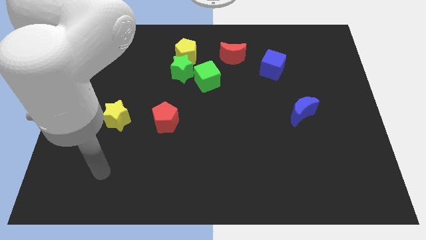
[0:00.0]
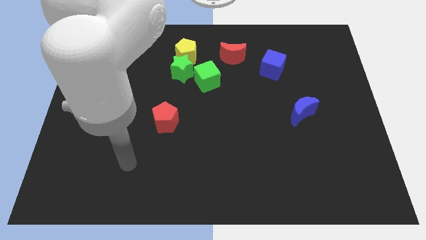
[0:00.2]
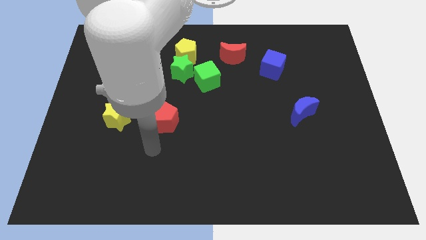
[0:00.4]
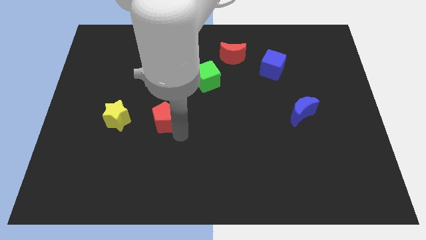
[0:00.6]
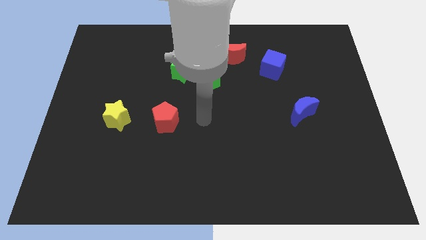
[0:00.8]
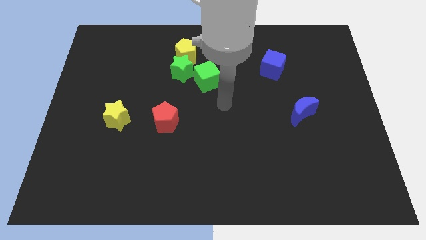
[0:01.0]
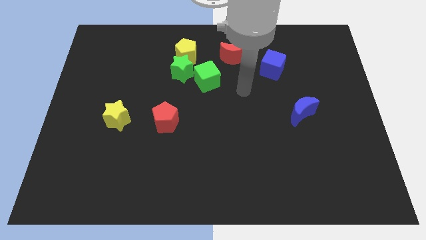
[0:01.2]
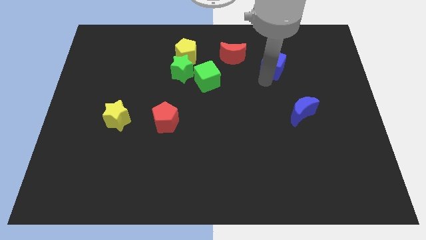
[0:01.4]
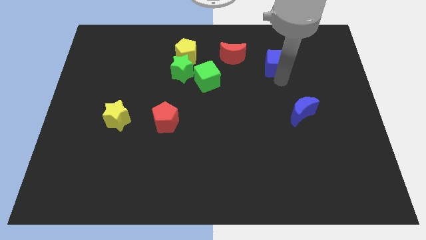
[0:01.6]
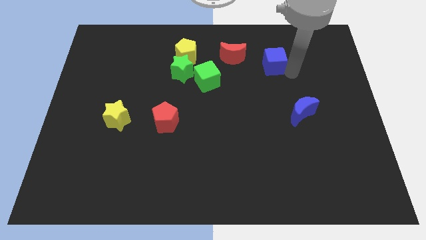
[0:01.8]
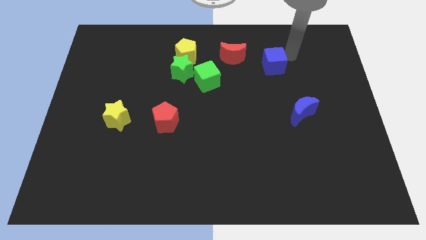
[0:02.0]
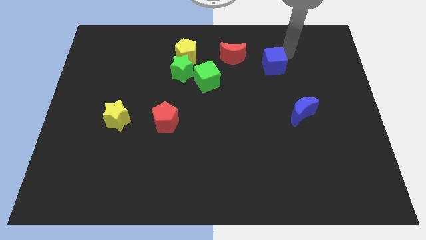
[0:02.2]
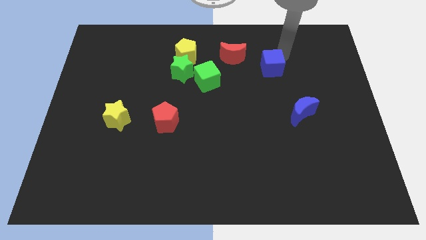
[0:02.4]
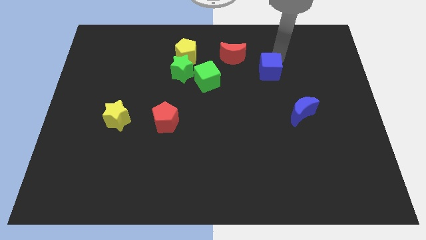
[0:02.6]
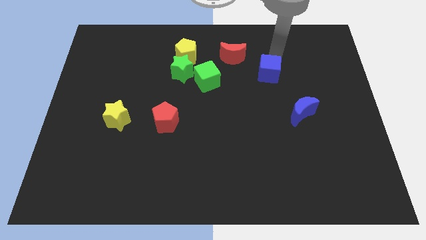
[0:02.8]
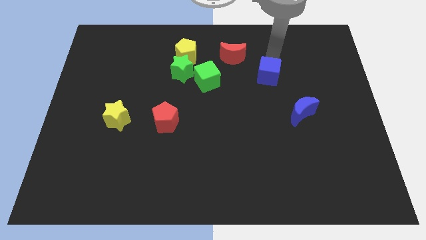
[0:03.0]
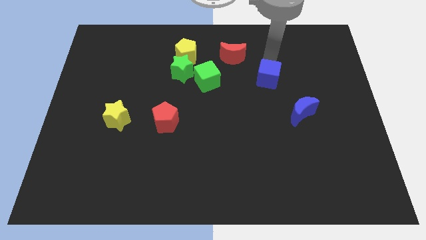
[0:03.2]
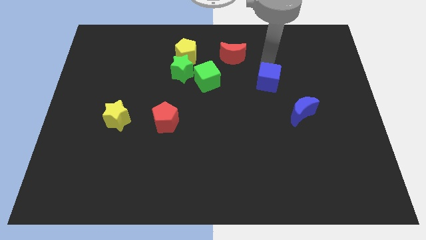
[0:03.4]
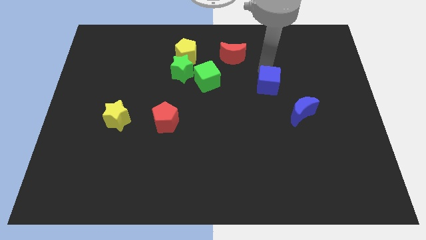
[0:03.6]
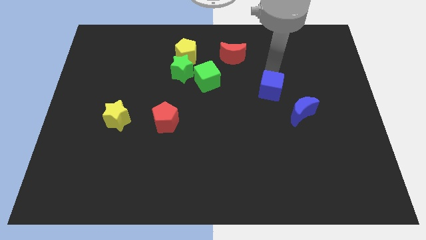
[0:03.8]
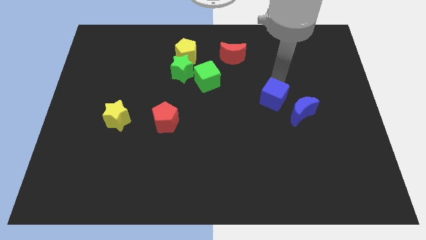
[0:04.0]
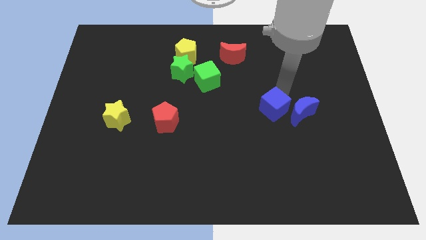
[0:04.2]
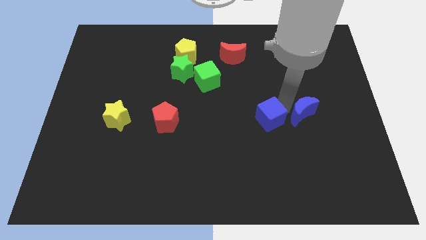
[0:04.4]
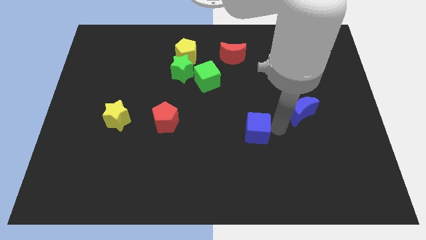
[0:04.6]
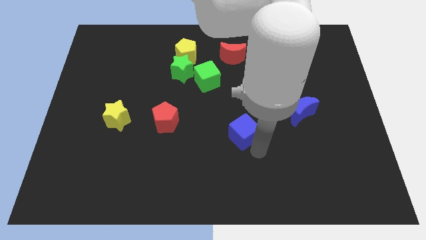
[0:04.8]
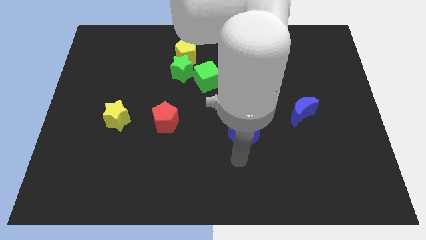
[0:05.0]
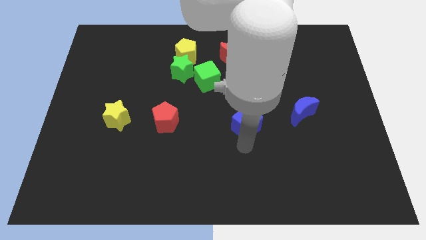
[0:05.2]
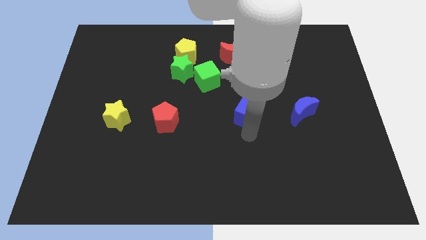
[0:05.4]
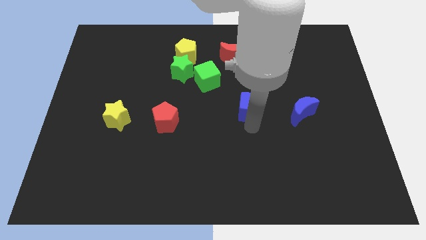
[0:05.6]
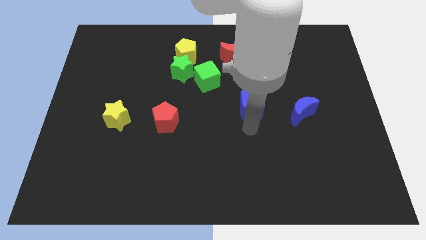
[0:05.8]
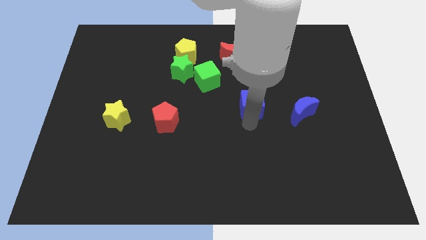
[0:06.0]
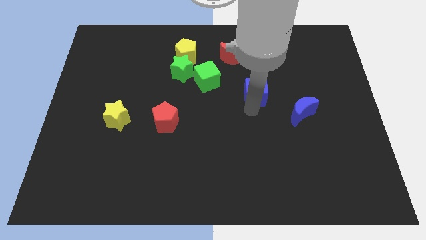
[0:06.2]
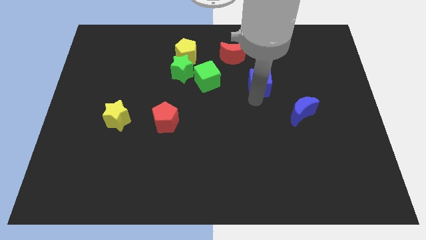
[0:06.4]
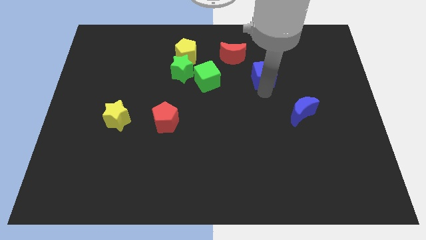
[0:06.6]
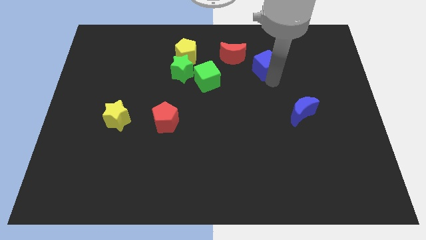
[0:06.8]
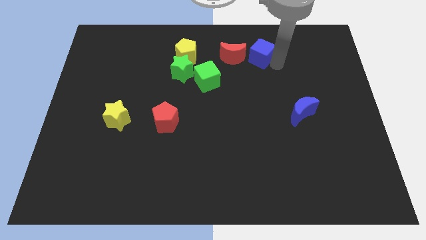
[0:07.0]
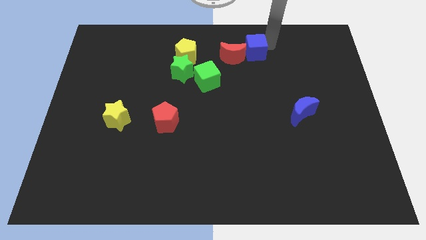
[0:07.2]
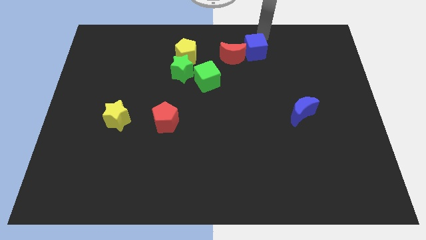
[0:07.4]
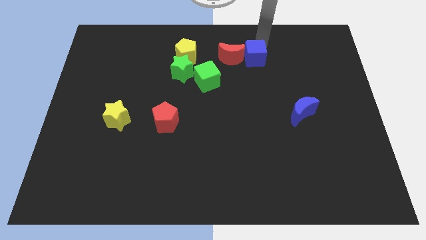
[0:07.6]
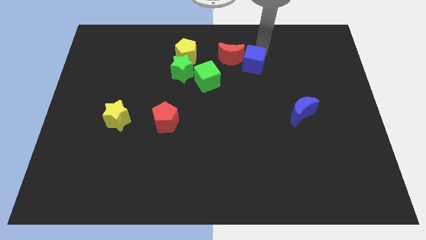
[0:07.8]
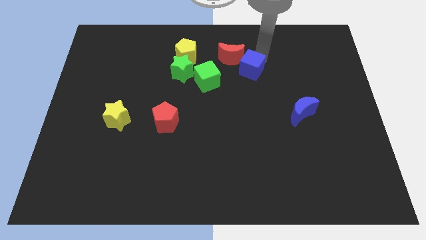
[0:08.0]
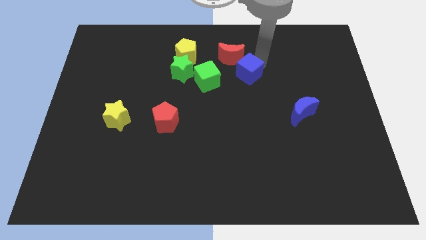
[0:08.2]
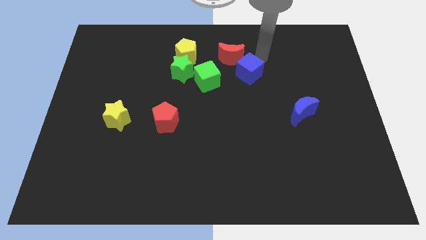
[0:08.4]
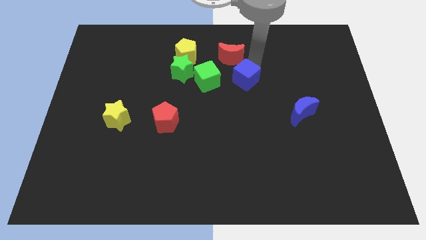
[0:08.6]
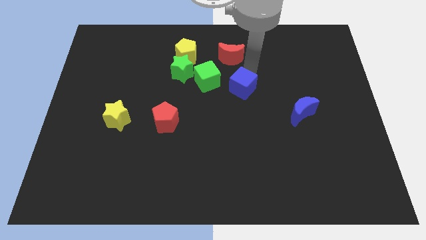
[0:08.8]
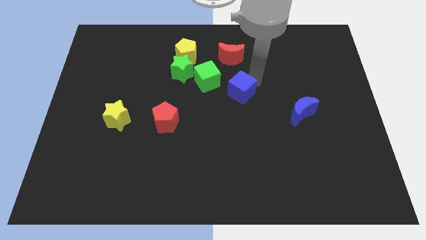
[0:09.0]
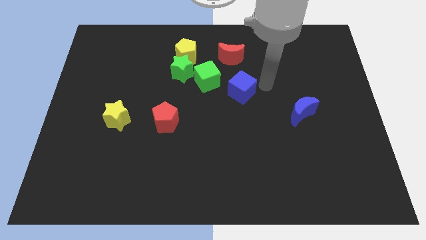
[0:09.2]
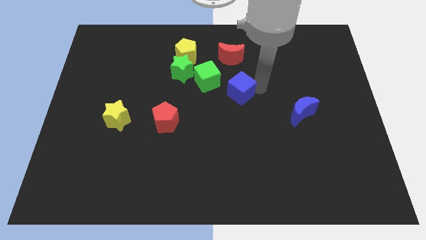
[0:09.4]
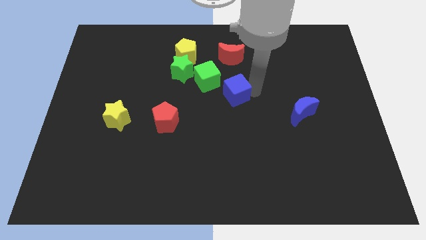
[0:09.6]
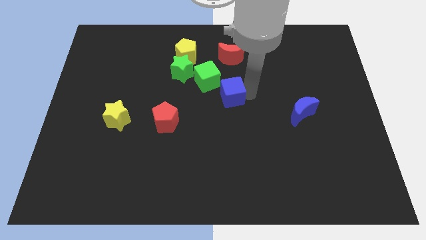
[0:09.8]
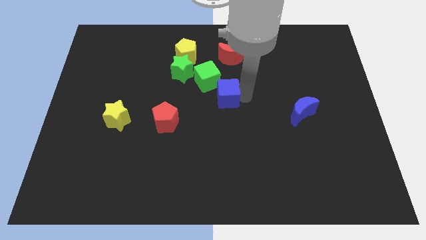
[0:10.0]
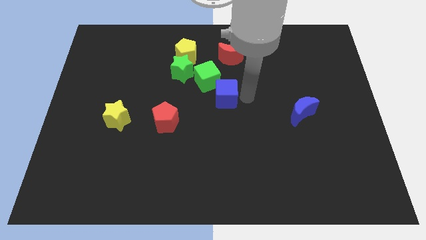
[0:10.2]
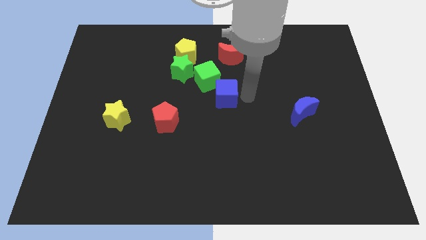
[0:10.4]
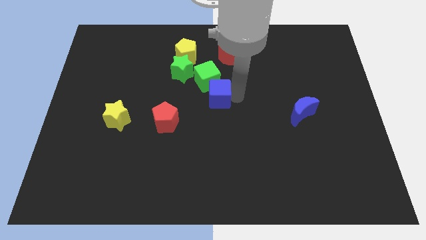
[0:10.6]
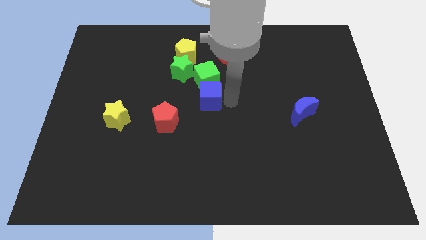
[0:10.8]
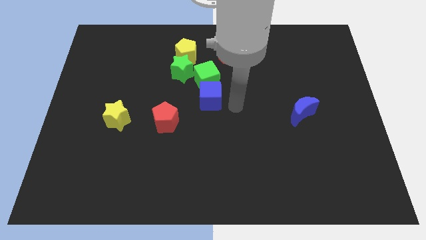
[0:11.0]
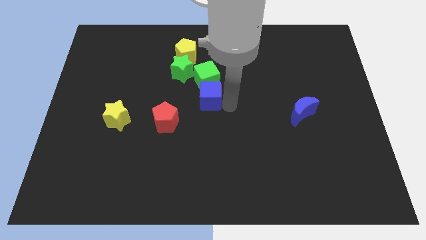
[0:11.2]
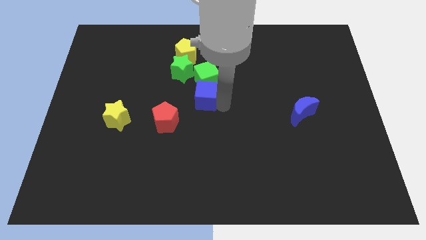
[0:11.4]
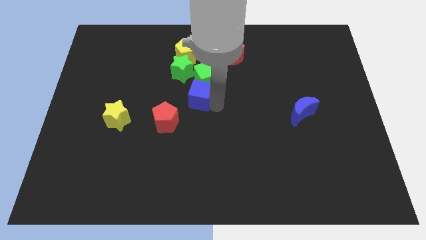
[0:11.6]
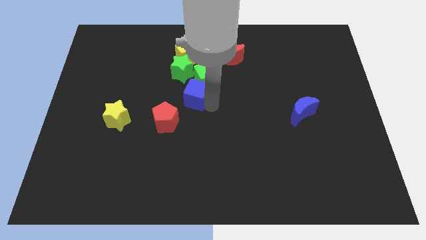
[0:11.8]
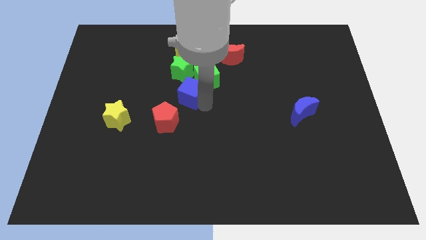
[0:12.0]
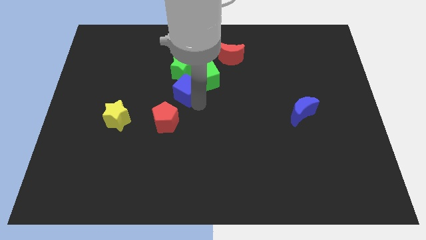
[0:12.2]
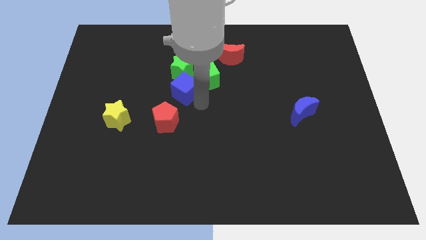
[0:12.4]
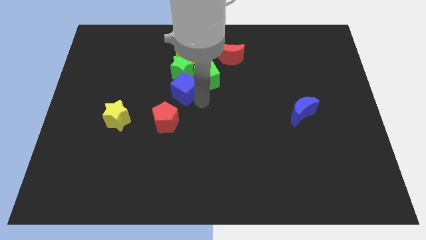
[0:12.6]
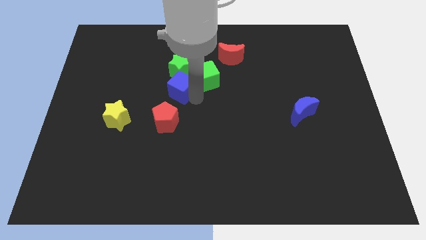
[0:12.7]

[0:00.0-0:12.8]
slide the blue cube left

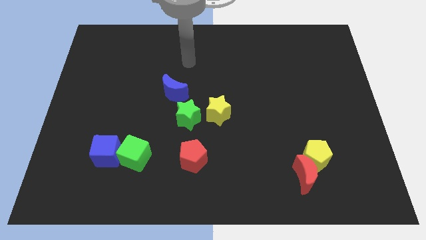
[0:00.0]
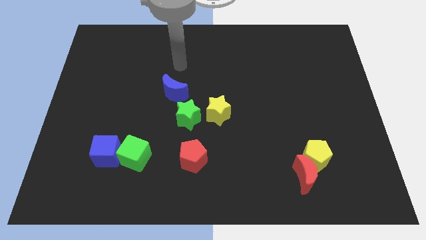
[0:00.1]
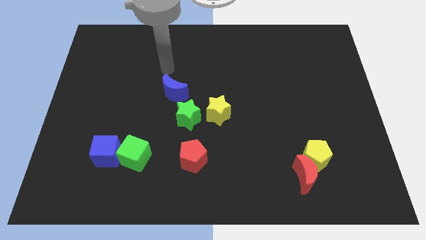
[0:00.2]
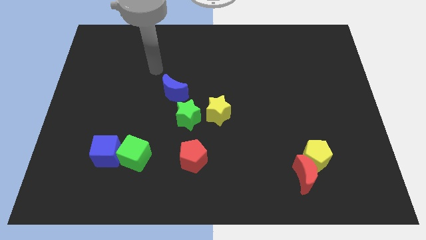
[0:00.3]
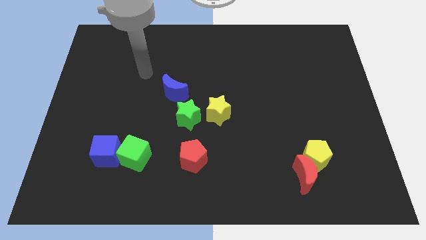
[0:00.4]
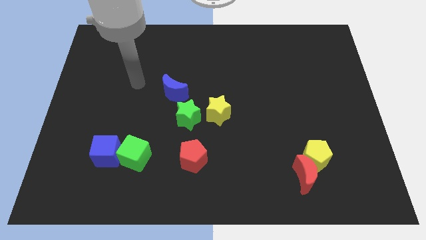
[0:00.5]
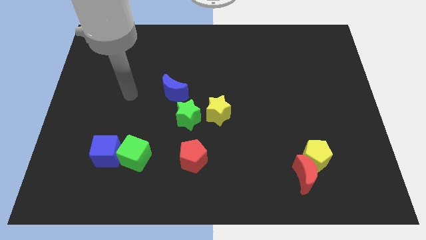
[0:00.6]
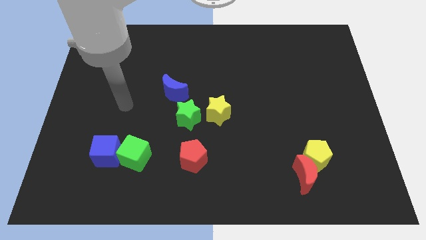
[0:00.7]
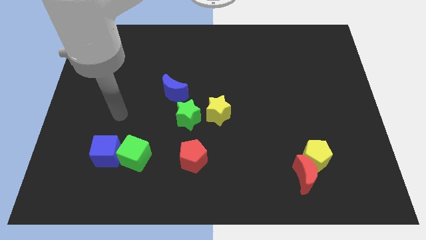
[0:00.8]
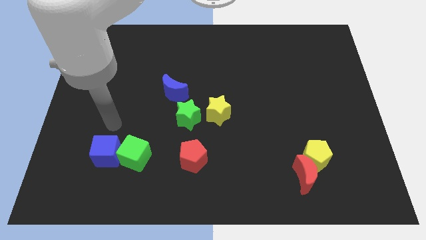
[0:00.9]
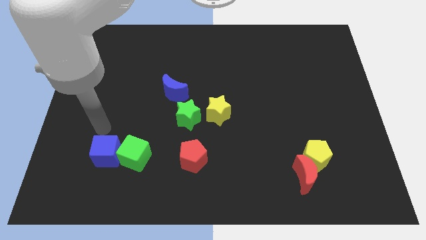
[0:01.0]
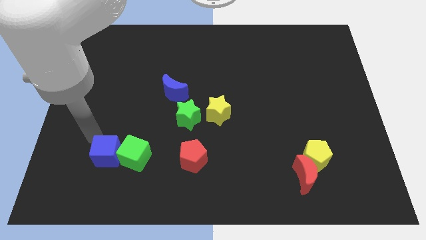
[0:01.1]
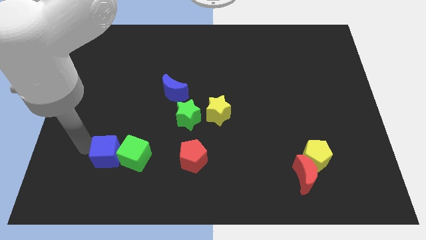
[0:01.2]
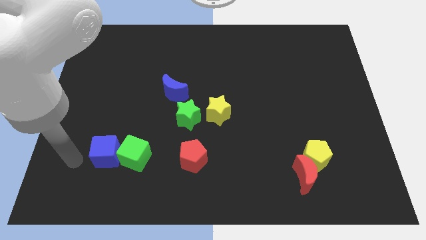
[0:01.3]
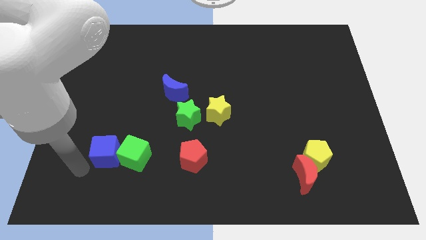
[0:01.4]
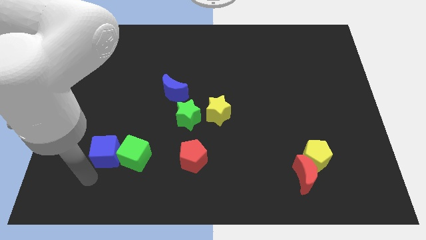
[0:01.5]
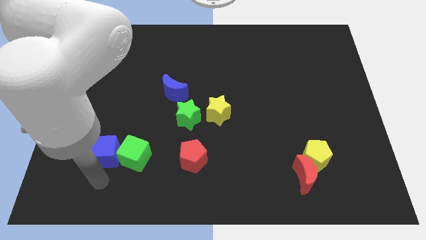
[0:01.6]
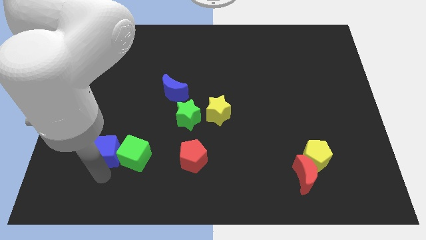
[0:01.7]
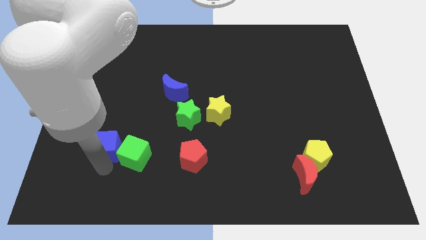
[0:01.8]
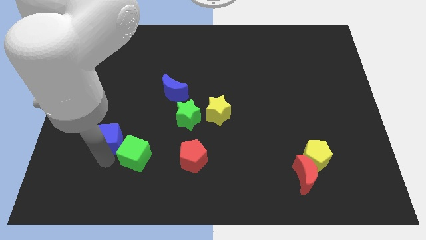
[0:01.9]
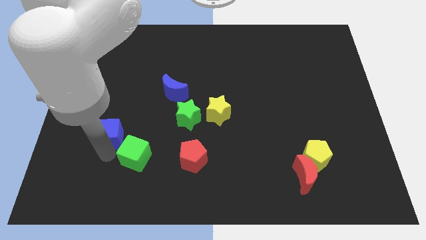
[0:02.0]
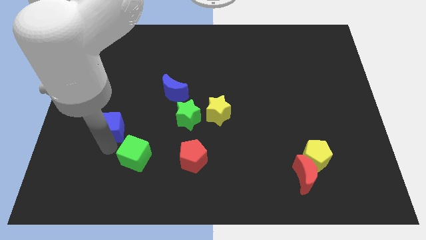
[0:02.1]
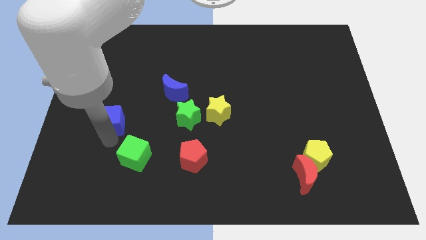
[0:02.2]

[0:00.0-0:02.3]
move the blue cube a little up
